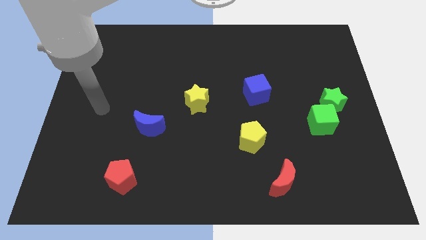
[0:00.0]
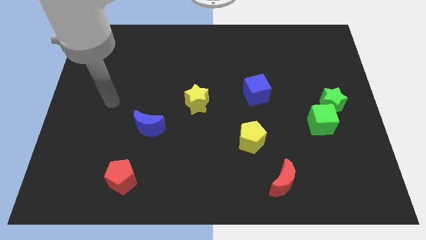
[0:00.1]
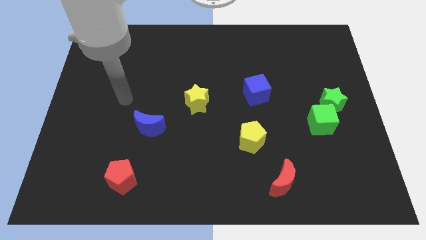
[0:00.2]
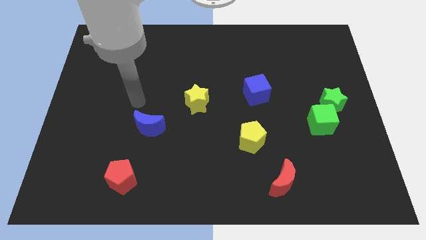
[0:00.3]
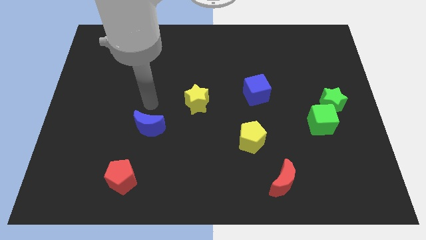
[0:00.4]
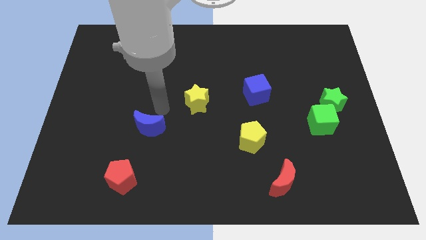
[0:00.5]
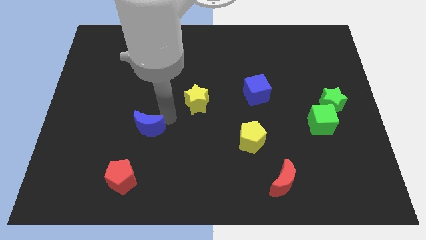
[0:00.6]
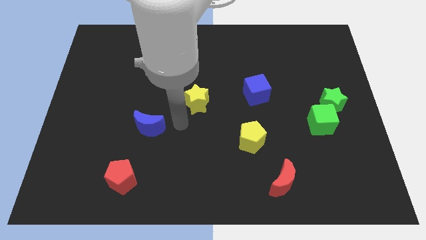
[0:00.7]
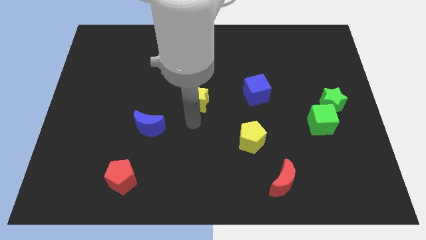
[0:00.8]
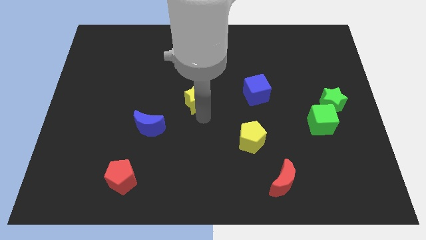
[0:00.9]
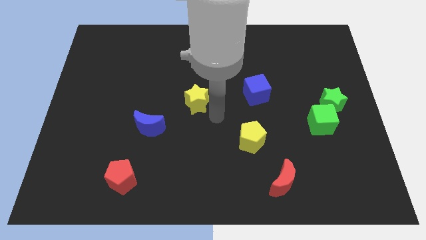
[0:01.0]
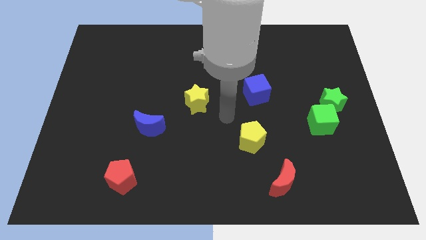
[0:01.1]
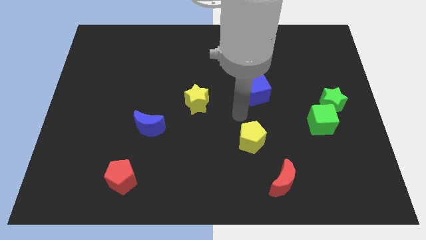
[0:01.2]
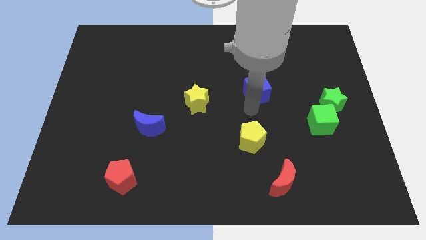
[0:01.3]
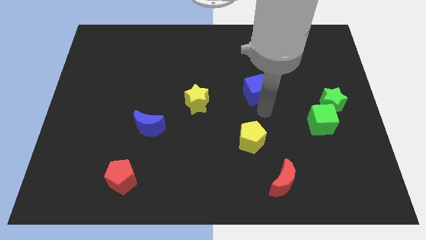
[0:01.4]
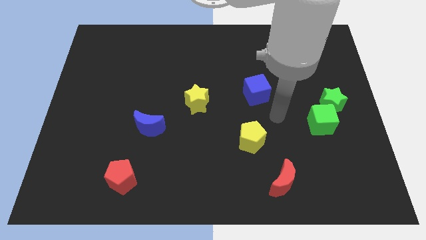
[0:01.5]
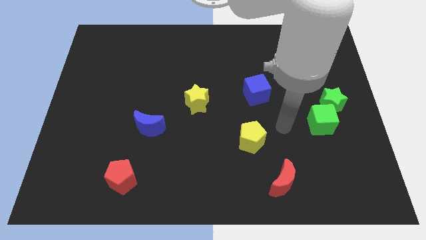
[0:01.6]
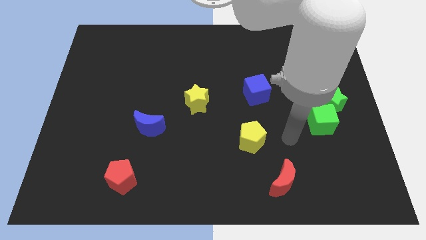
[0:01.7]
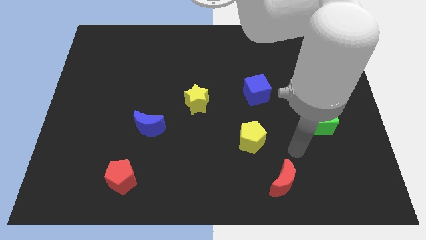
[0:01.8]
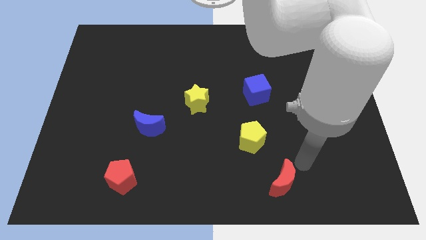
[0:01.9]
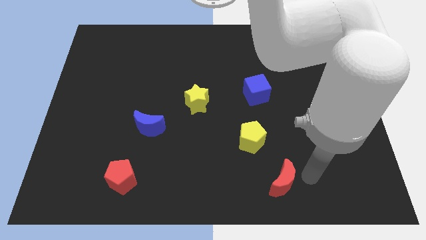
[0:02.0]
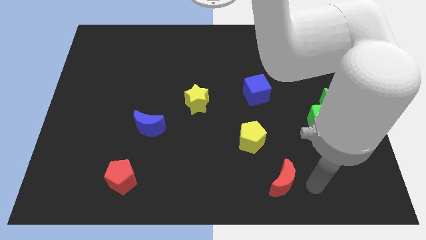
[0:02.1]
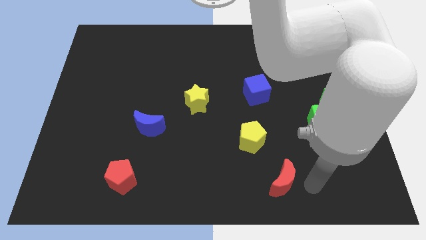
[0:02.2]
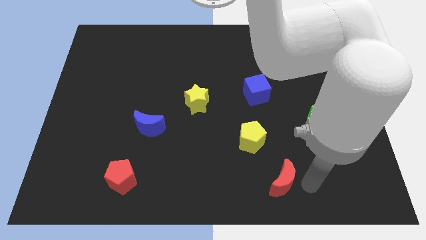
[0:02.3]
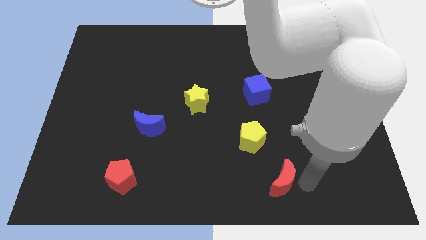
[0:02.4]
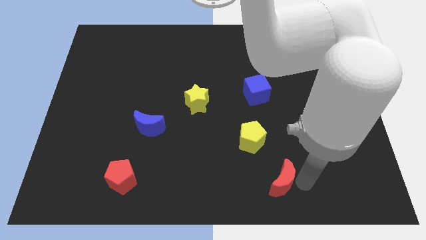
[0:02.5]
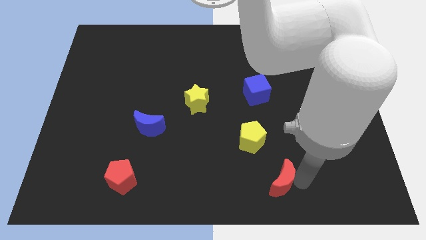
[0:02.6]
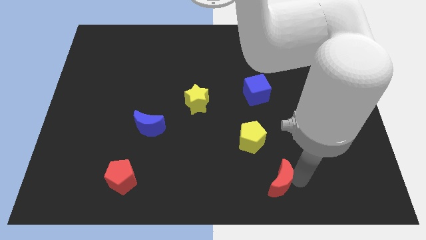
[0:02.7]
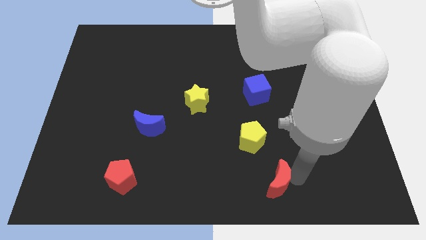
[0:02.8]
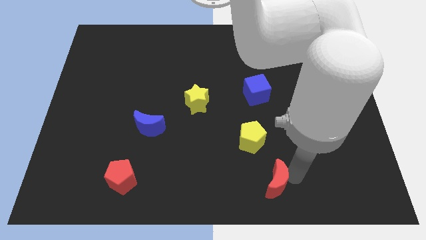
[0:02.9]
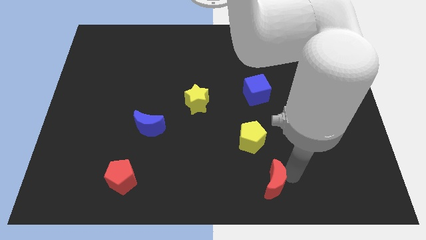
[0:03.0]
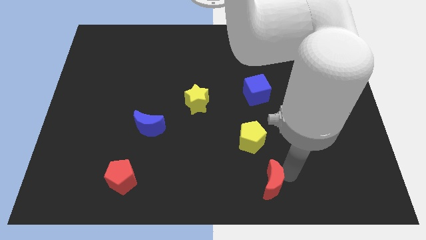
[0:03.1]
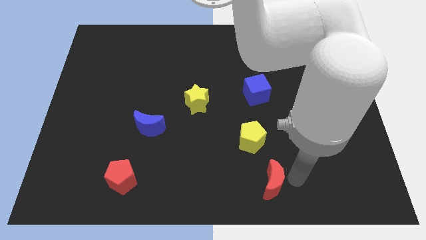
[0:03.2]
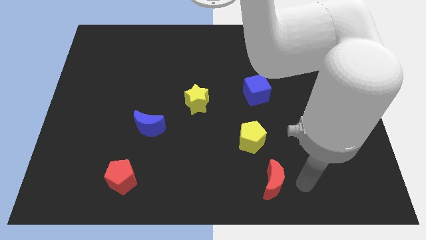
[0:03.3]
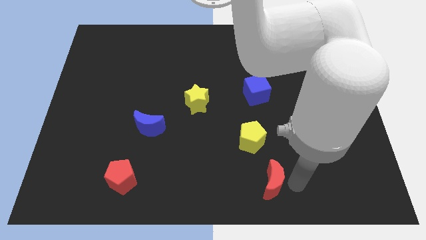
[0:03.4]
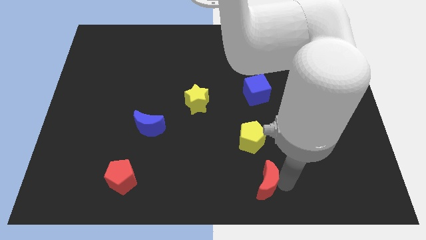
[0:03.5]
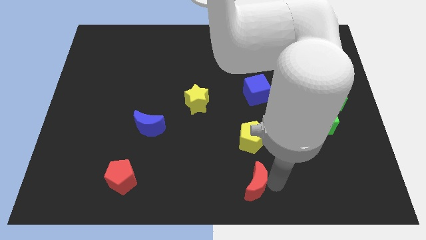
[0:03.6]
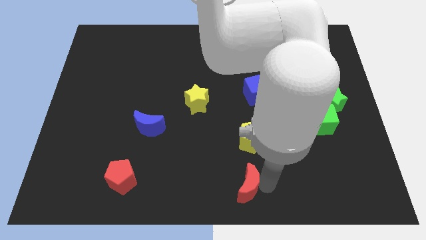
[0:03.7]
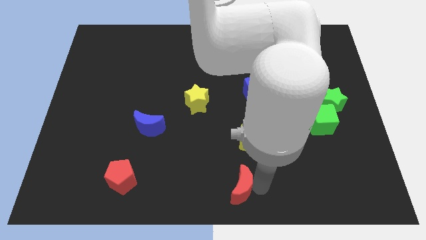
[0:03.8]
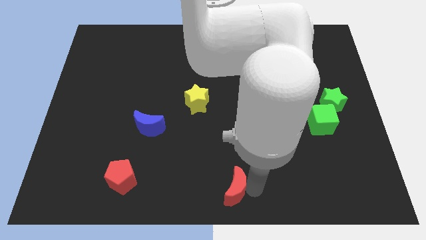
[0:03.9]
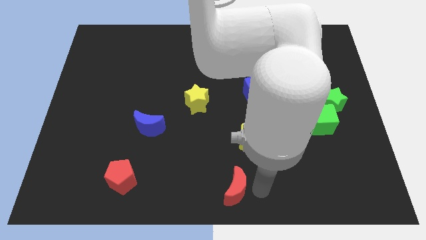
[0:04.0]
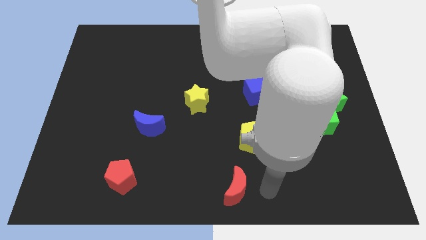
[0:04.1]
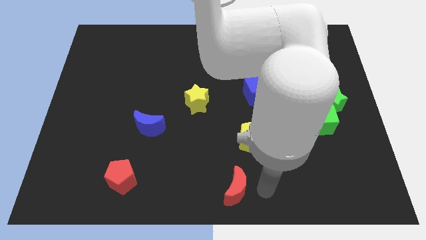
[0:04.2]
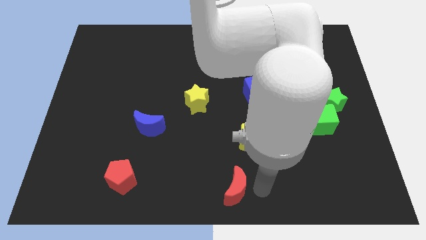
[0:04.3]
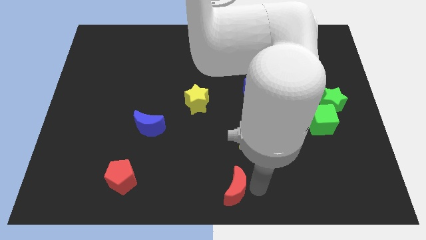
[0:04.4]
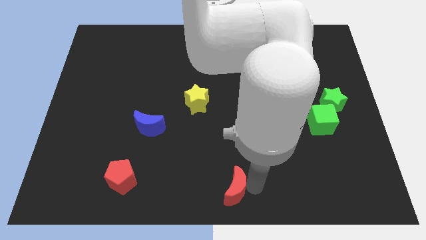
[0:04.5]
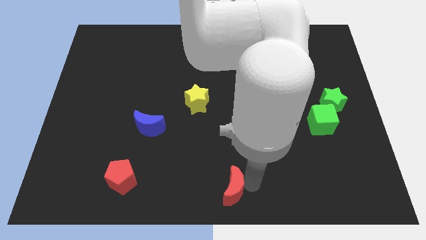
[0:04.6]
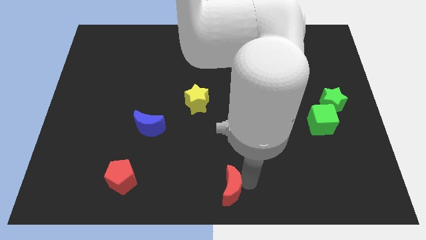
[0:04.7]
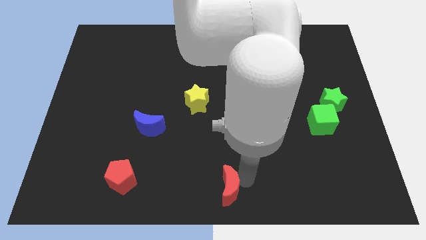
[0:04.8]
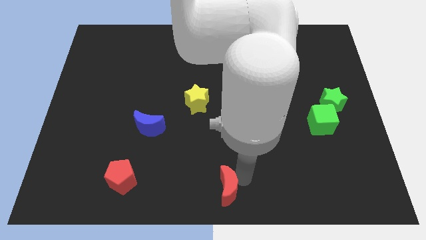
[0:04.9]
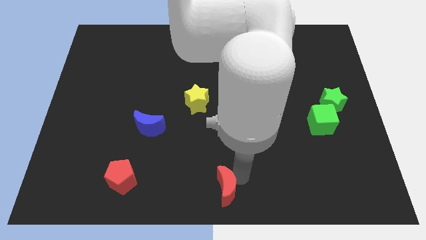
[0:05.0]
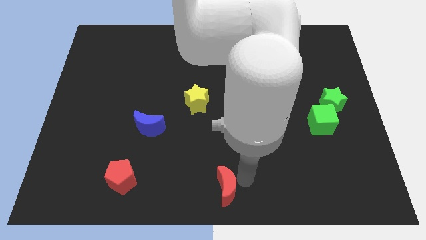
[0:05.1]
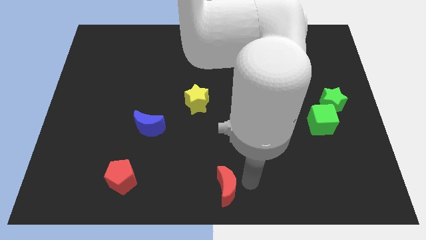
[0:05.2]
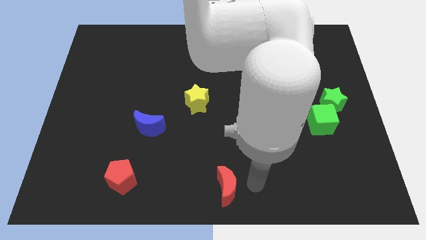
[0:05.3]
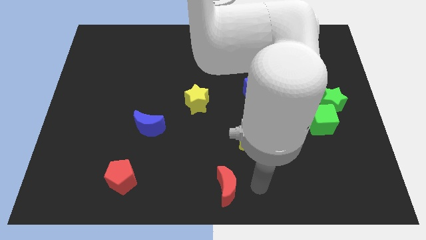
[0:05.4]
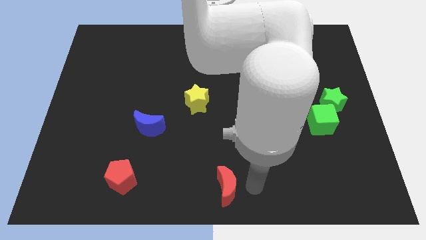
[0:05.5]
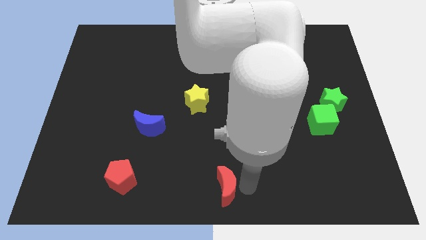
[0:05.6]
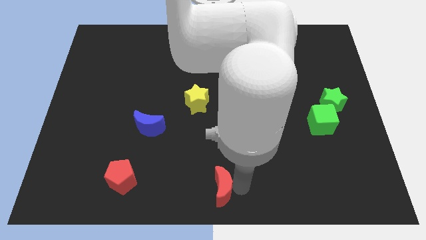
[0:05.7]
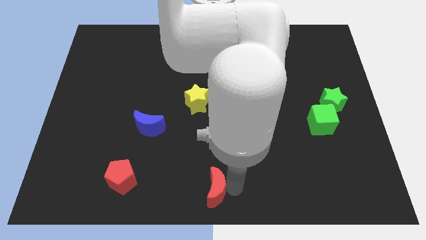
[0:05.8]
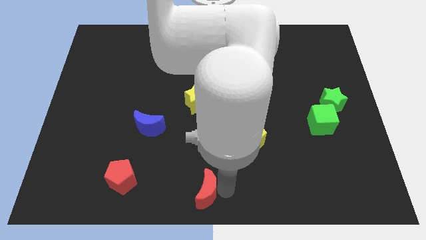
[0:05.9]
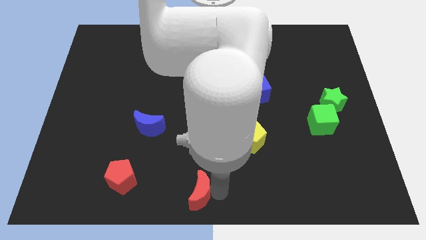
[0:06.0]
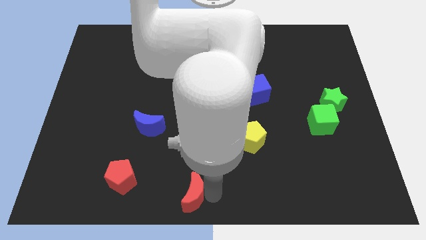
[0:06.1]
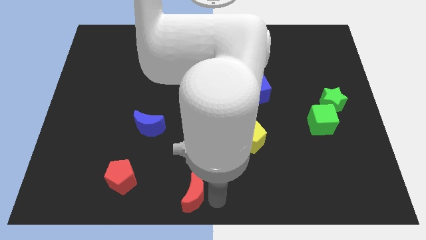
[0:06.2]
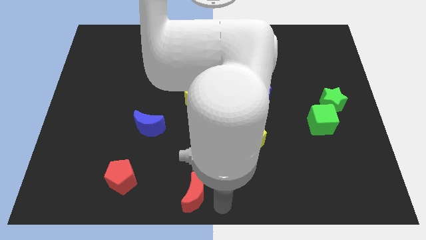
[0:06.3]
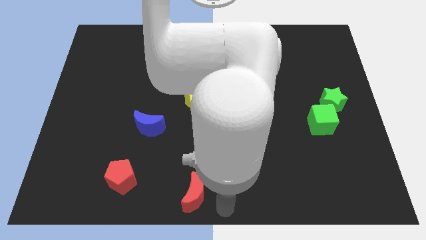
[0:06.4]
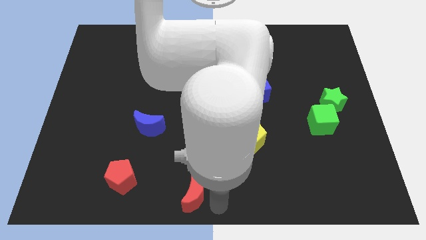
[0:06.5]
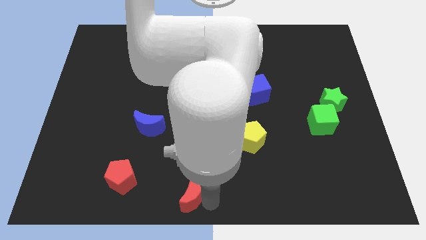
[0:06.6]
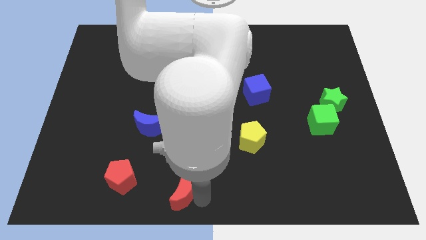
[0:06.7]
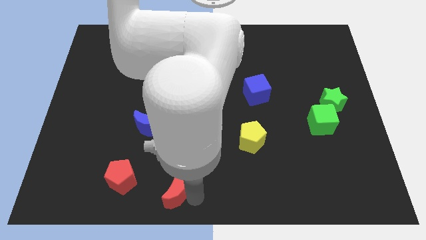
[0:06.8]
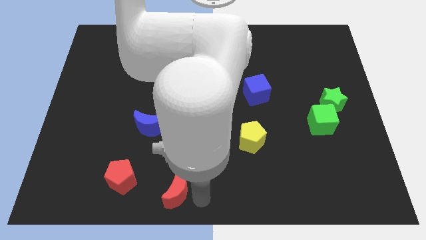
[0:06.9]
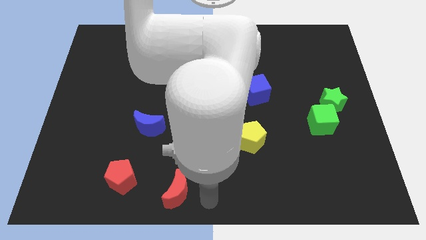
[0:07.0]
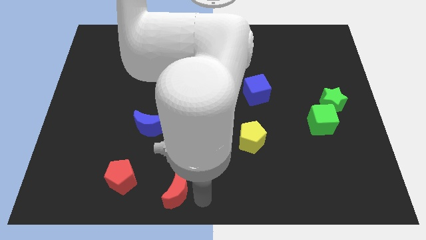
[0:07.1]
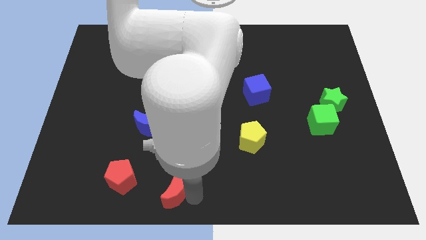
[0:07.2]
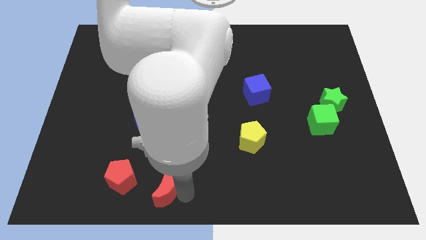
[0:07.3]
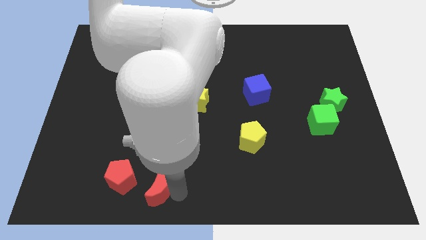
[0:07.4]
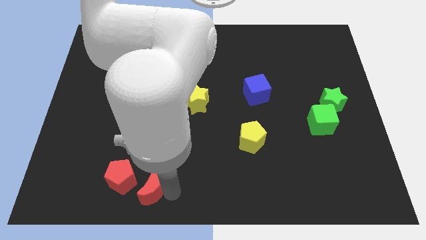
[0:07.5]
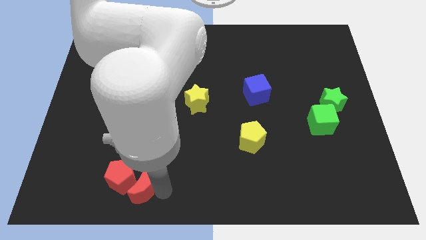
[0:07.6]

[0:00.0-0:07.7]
push the red moon to the red pentagon
